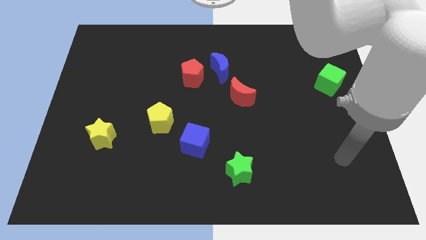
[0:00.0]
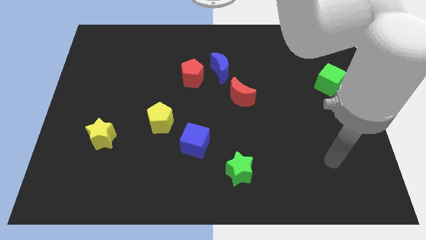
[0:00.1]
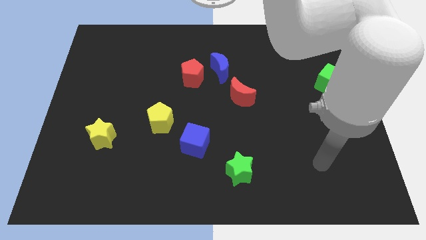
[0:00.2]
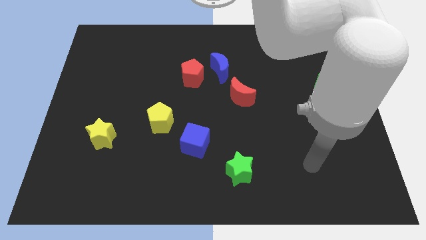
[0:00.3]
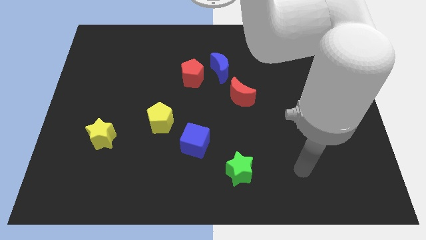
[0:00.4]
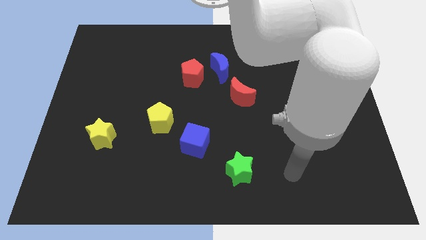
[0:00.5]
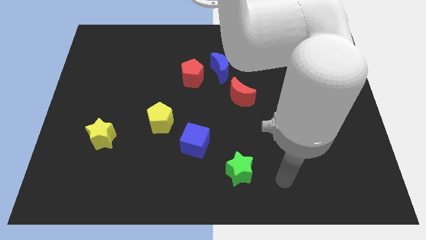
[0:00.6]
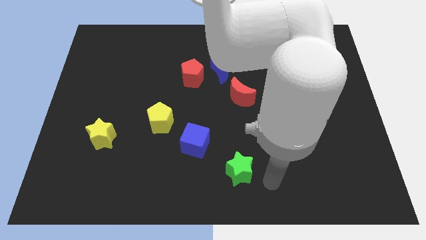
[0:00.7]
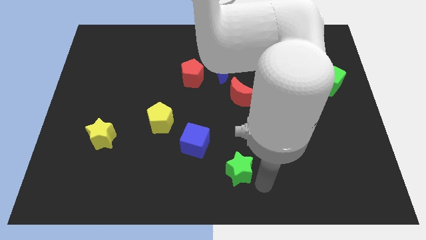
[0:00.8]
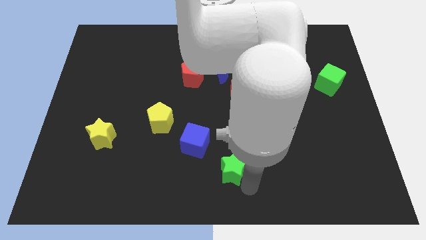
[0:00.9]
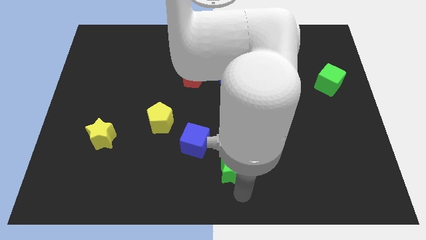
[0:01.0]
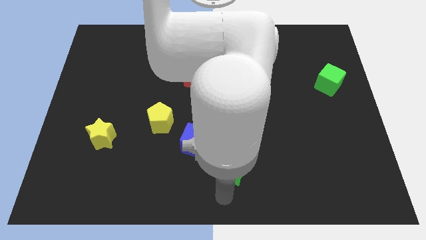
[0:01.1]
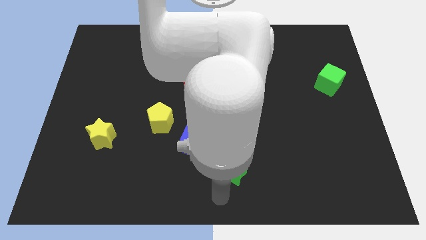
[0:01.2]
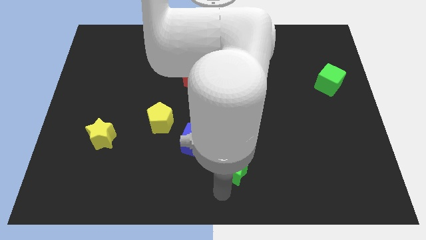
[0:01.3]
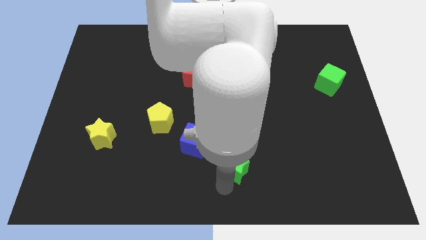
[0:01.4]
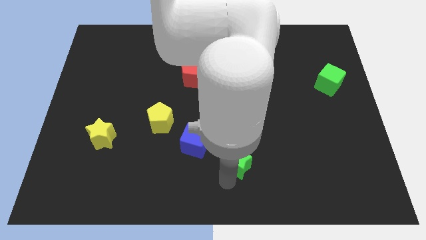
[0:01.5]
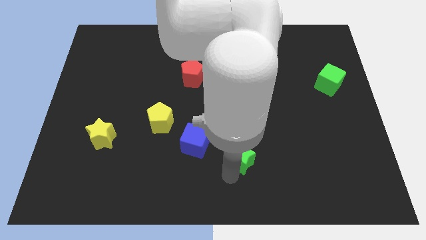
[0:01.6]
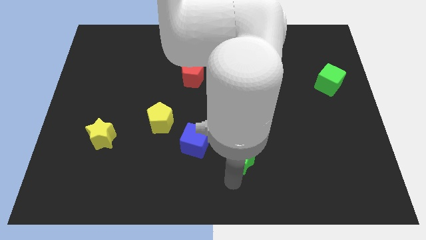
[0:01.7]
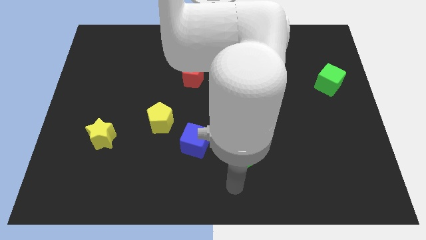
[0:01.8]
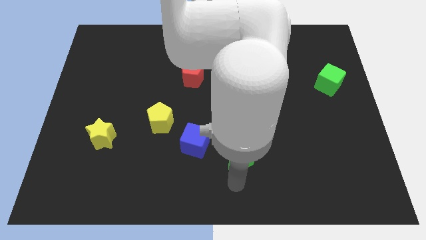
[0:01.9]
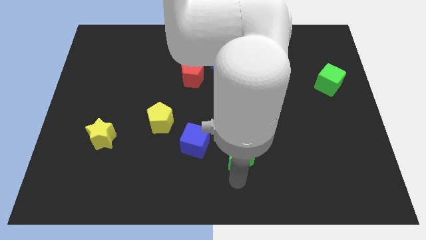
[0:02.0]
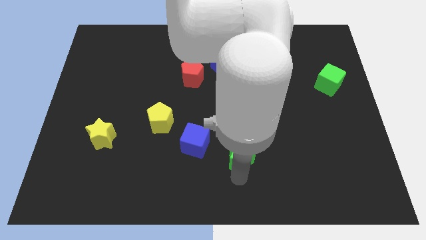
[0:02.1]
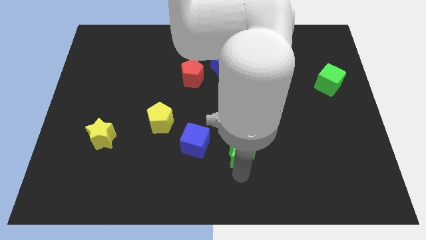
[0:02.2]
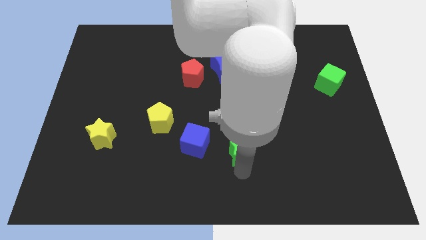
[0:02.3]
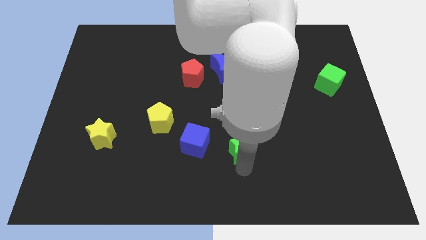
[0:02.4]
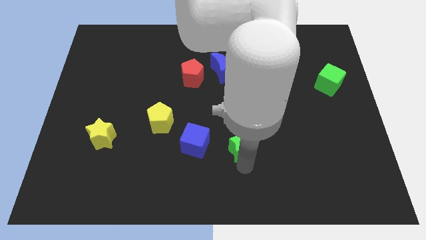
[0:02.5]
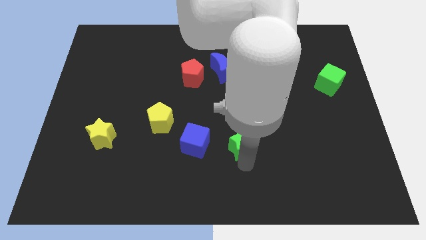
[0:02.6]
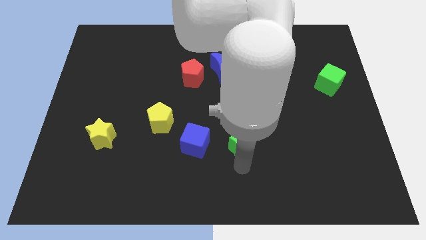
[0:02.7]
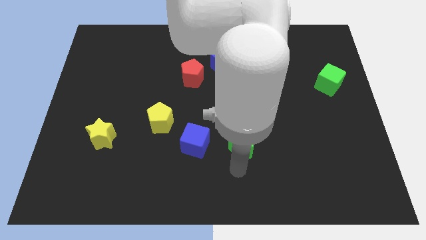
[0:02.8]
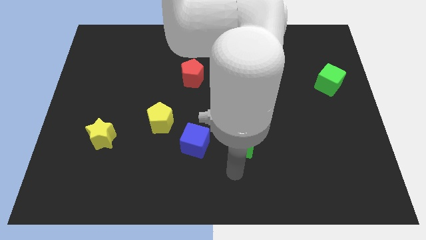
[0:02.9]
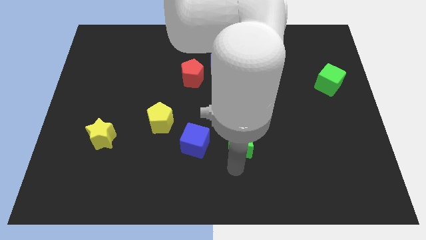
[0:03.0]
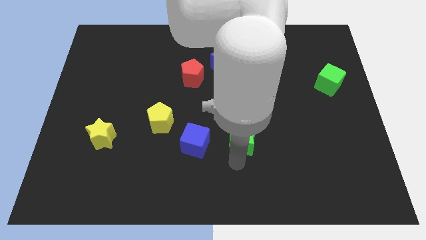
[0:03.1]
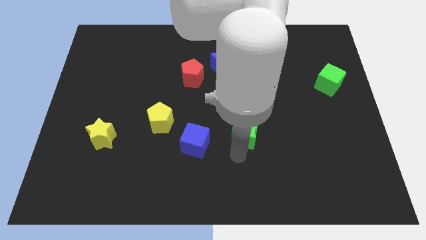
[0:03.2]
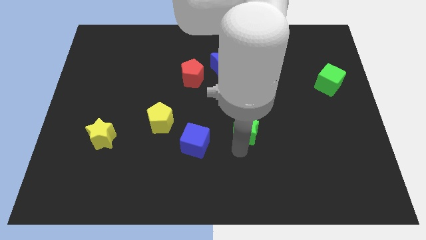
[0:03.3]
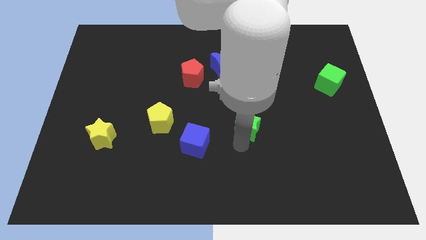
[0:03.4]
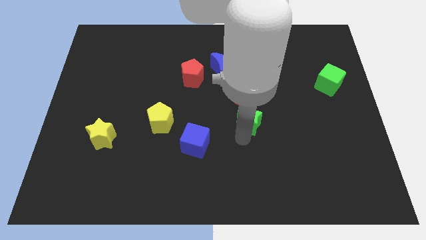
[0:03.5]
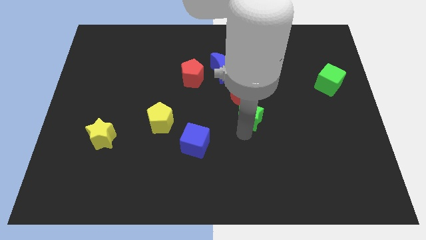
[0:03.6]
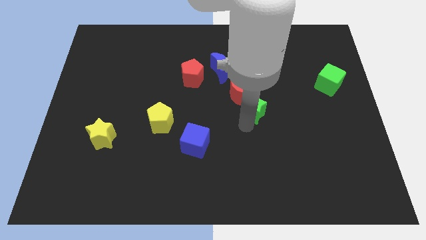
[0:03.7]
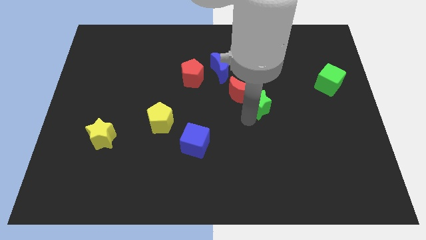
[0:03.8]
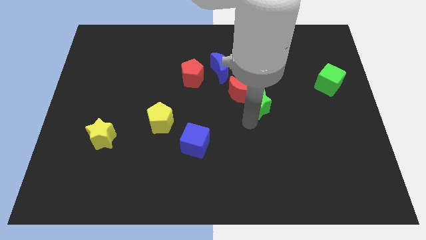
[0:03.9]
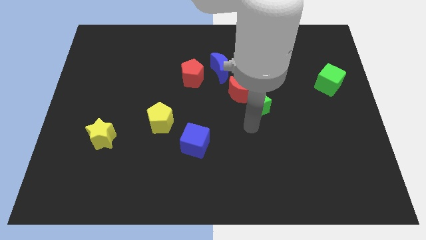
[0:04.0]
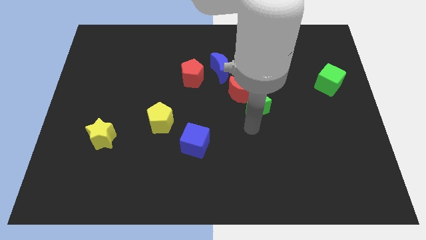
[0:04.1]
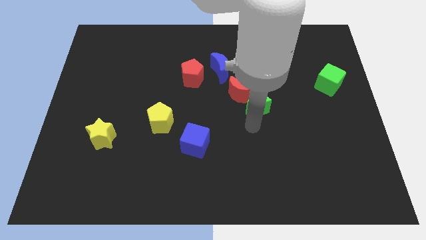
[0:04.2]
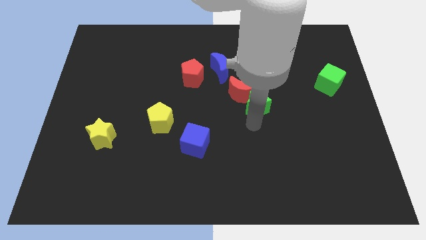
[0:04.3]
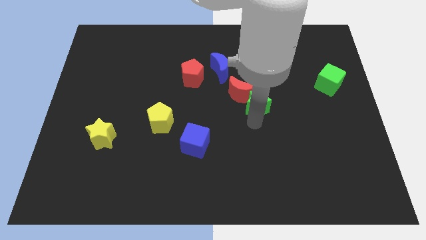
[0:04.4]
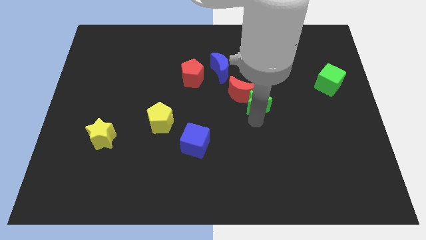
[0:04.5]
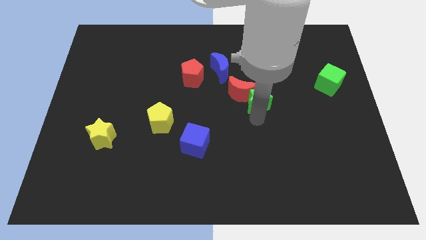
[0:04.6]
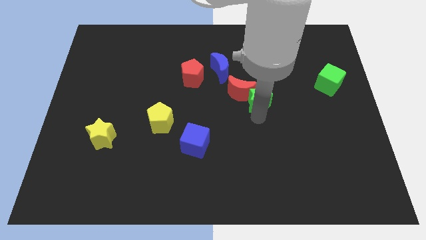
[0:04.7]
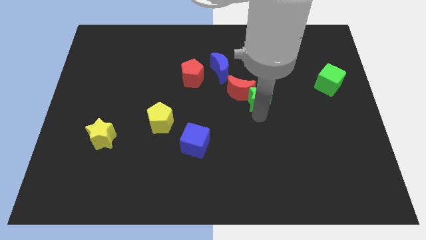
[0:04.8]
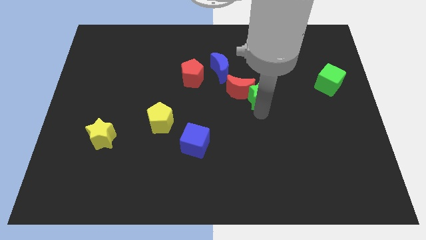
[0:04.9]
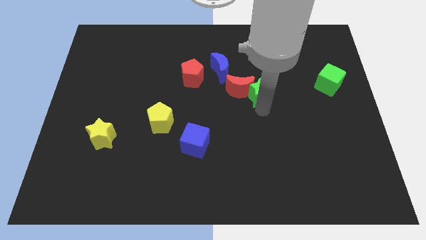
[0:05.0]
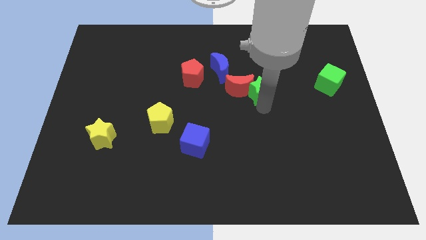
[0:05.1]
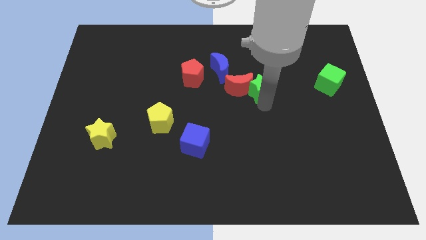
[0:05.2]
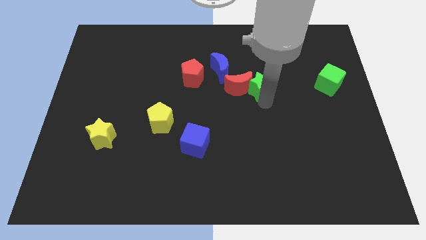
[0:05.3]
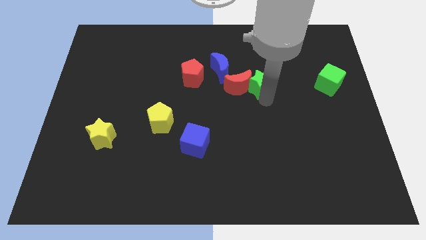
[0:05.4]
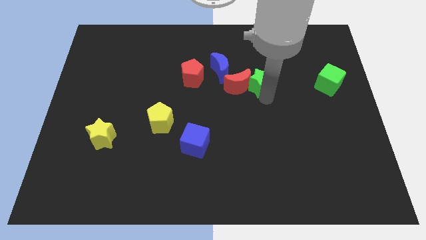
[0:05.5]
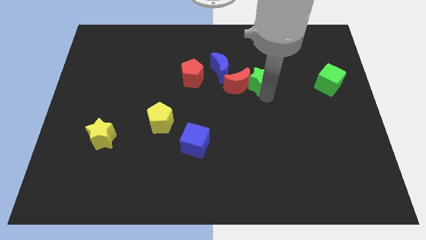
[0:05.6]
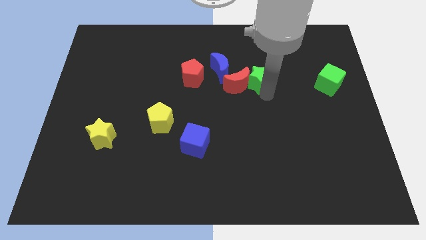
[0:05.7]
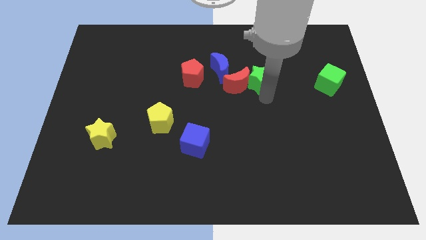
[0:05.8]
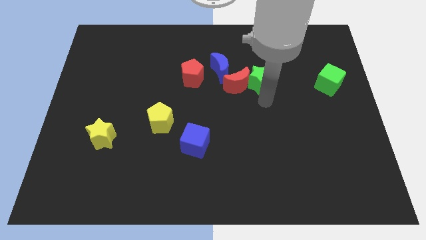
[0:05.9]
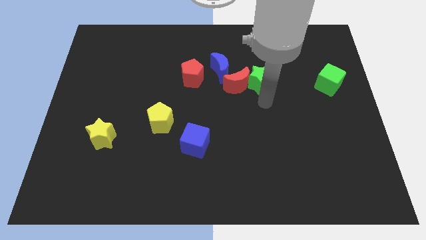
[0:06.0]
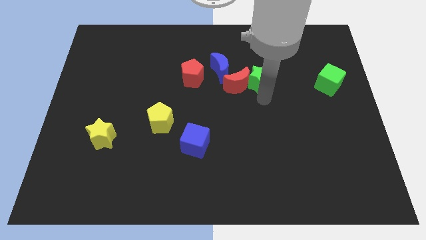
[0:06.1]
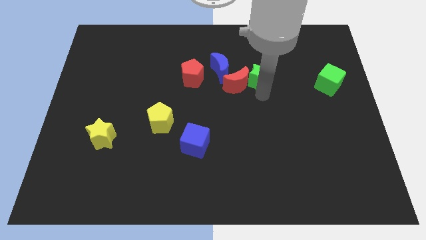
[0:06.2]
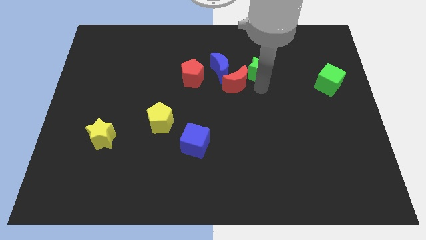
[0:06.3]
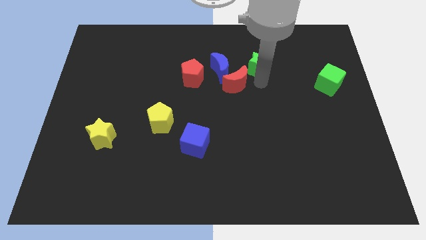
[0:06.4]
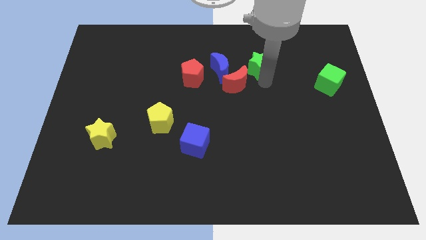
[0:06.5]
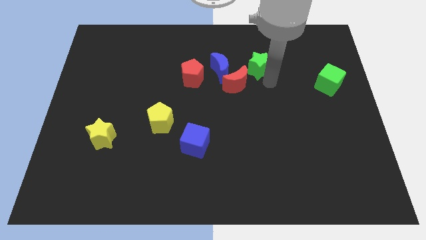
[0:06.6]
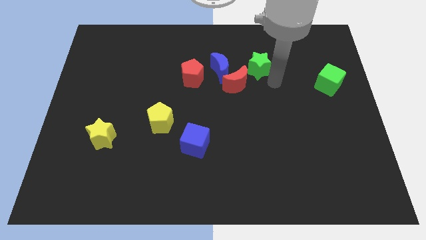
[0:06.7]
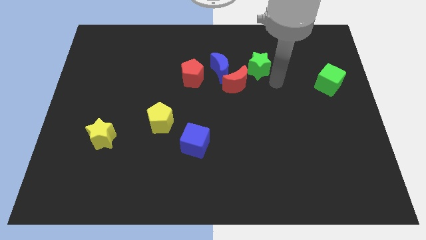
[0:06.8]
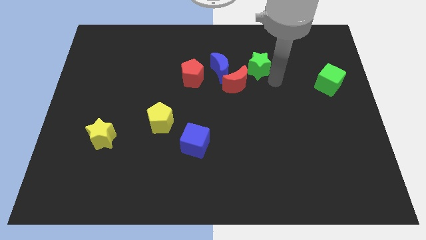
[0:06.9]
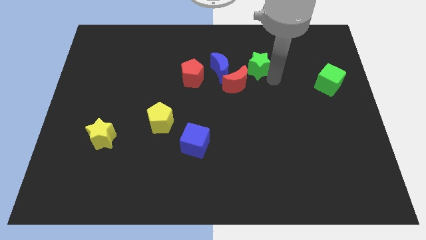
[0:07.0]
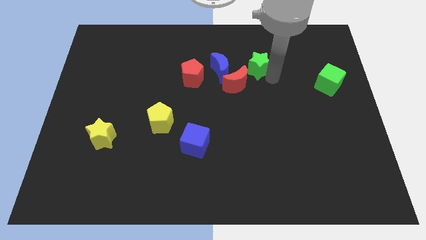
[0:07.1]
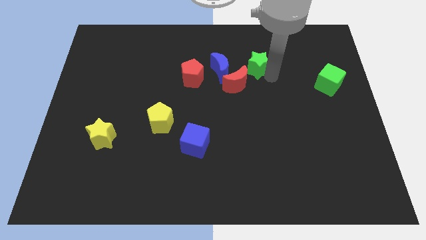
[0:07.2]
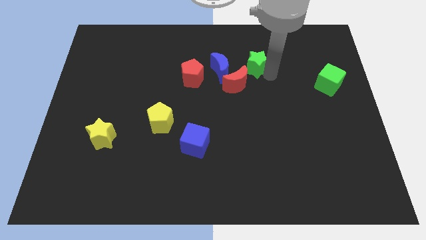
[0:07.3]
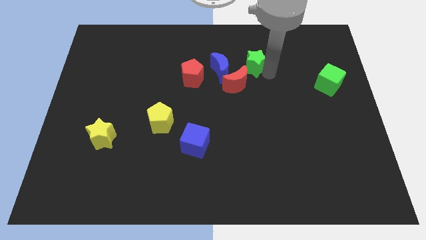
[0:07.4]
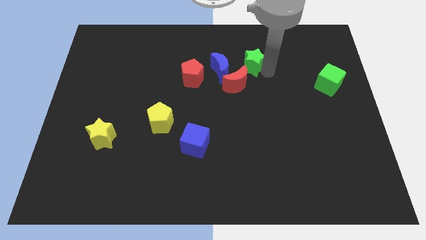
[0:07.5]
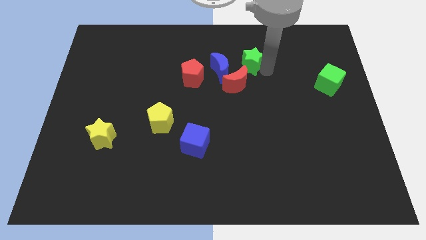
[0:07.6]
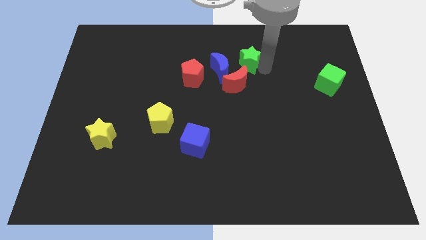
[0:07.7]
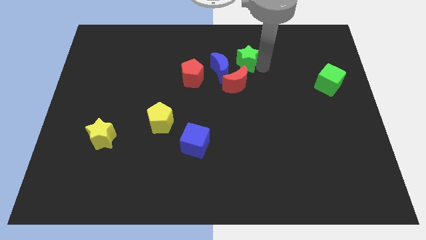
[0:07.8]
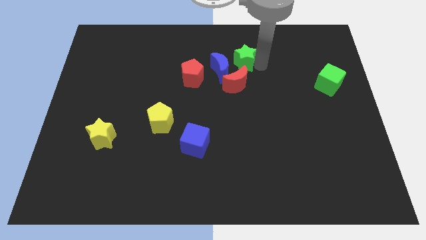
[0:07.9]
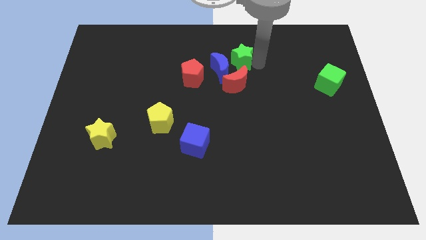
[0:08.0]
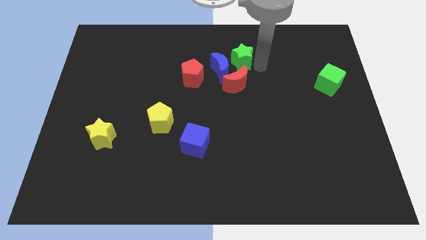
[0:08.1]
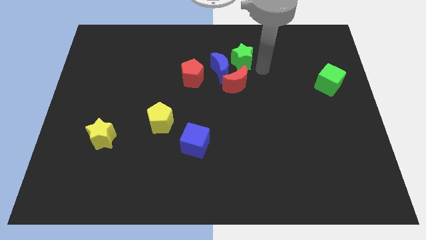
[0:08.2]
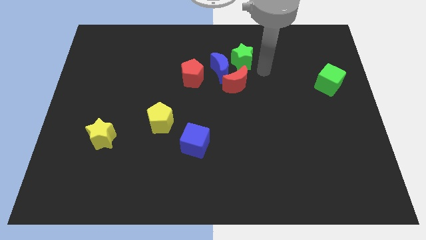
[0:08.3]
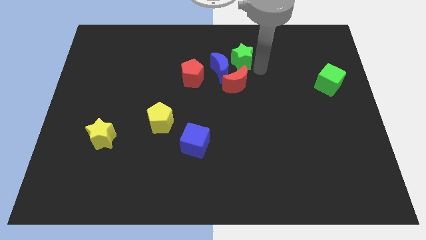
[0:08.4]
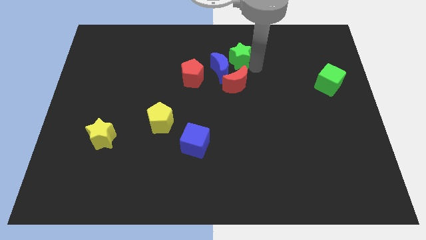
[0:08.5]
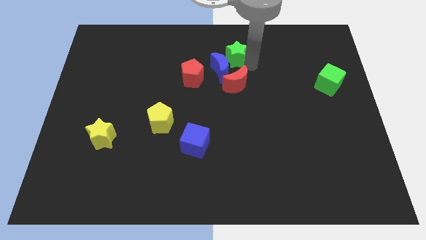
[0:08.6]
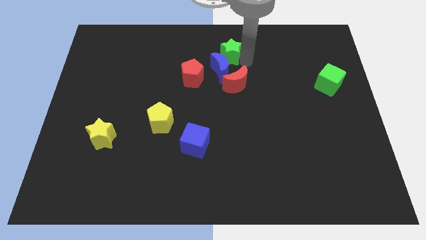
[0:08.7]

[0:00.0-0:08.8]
put the green star to the top right of the red pentagon
